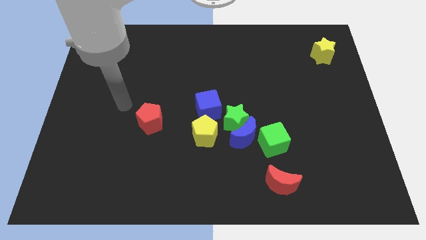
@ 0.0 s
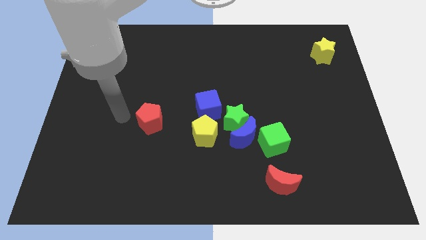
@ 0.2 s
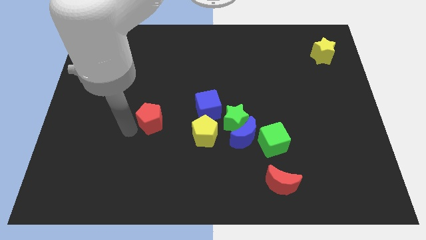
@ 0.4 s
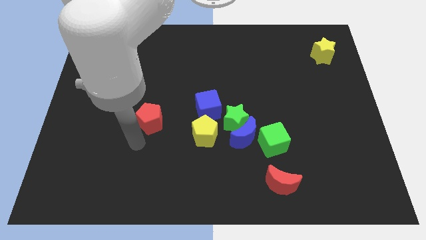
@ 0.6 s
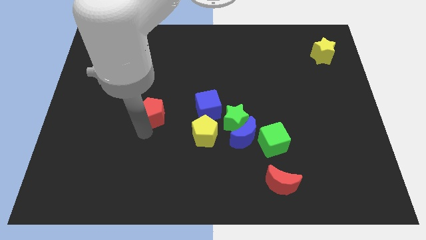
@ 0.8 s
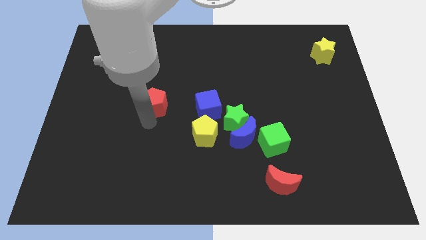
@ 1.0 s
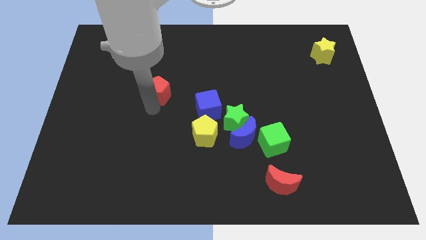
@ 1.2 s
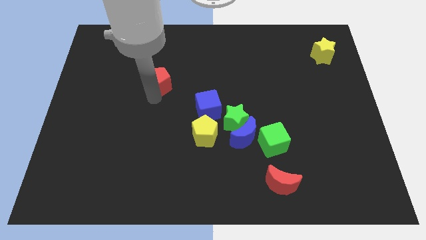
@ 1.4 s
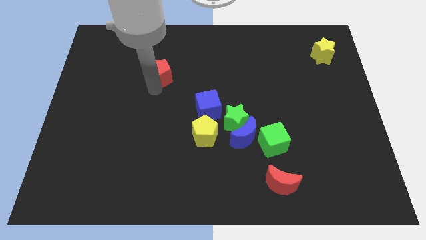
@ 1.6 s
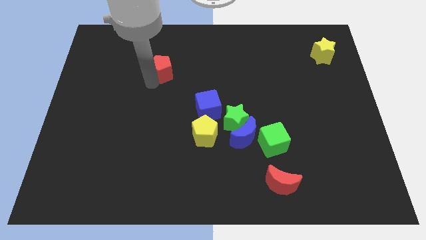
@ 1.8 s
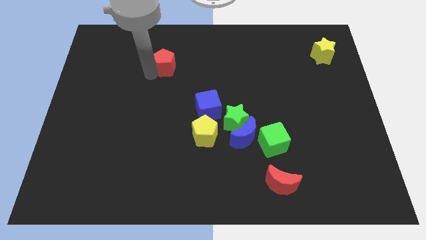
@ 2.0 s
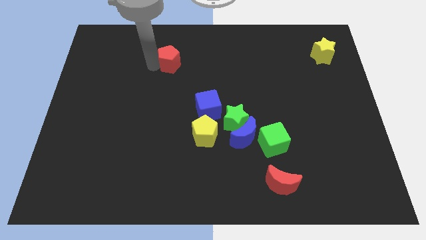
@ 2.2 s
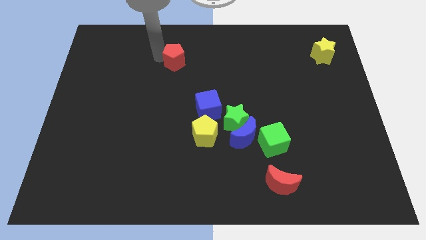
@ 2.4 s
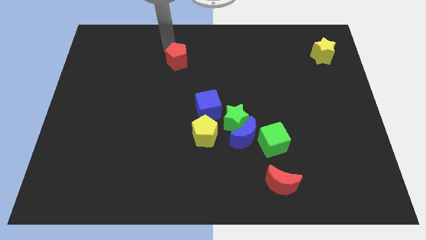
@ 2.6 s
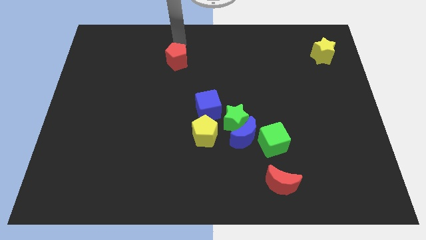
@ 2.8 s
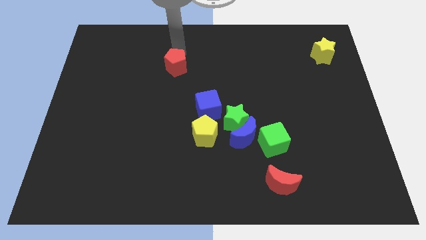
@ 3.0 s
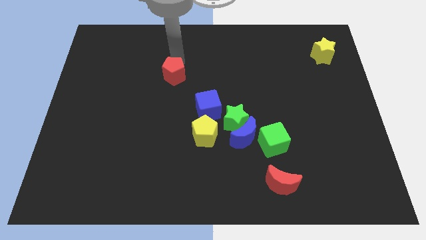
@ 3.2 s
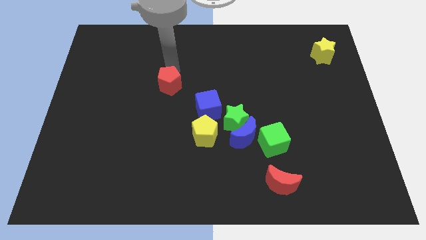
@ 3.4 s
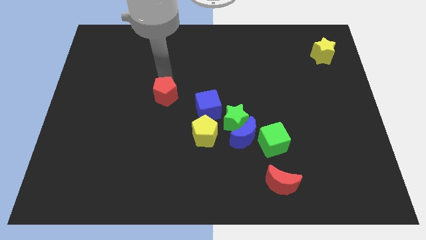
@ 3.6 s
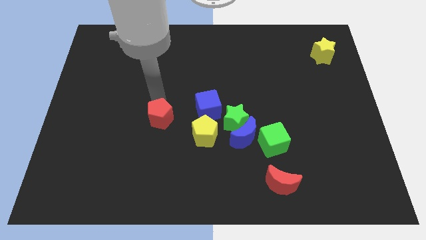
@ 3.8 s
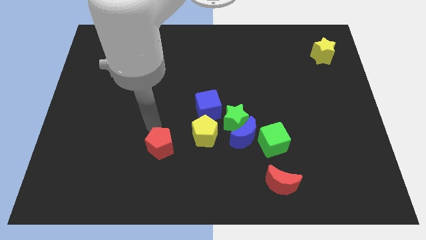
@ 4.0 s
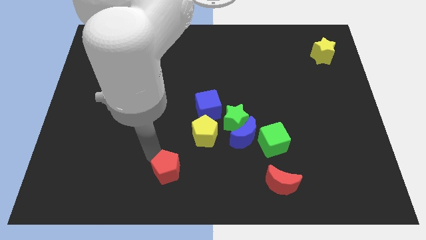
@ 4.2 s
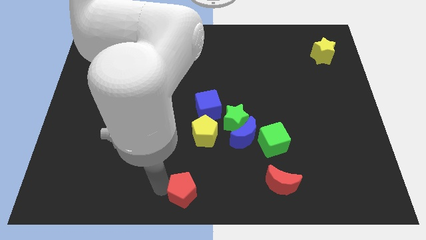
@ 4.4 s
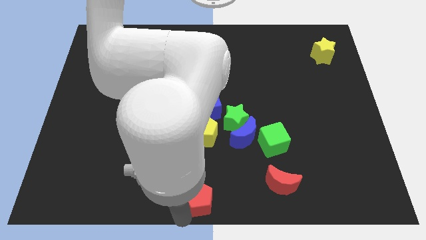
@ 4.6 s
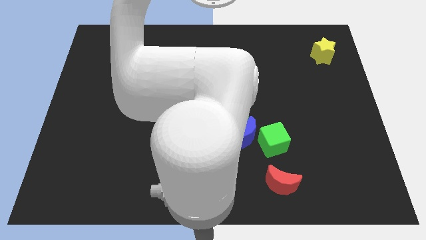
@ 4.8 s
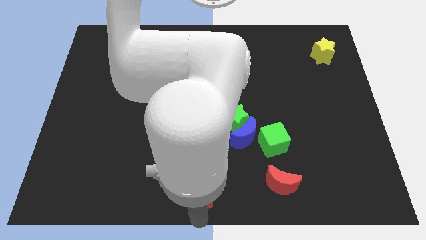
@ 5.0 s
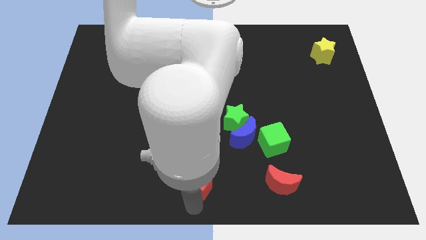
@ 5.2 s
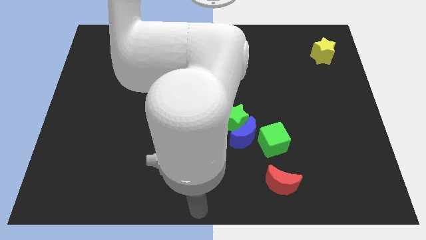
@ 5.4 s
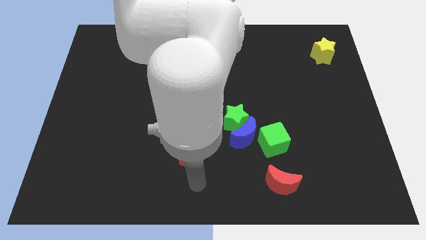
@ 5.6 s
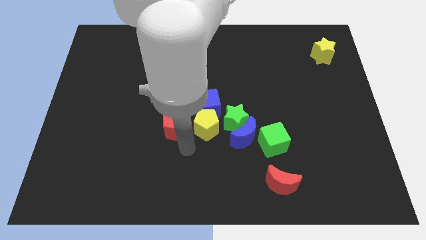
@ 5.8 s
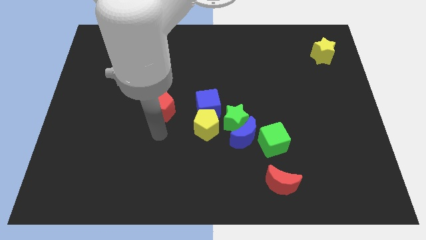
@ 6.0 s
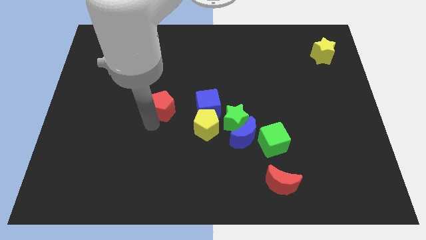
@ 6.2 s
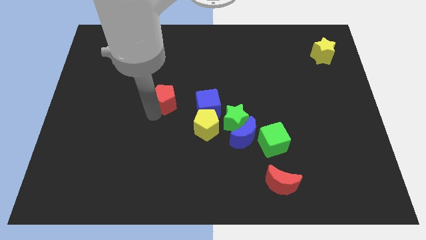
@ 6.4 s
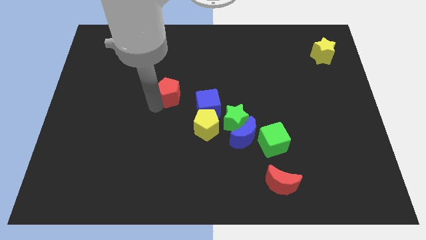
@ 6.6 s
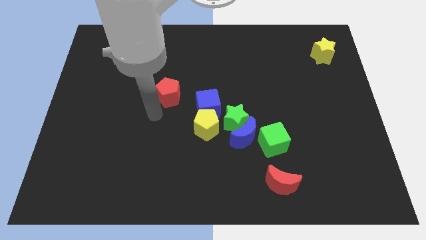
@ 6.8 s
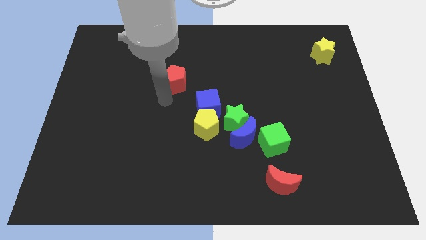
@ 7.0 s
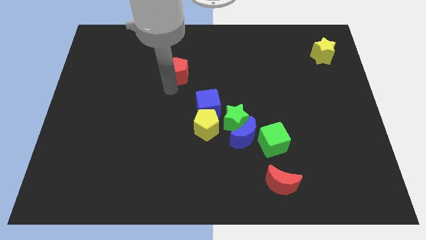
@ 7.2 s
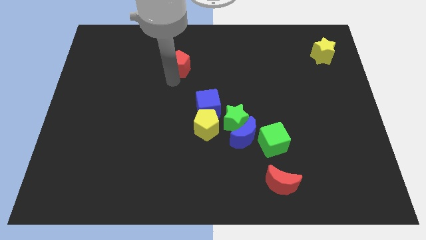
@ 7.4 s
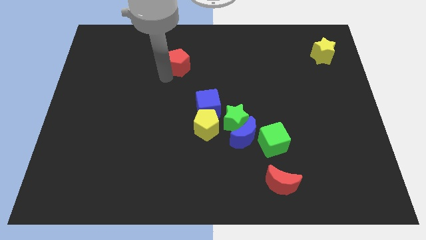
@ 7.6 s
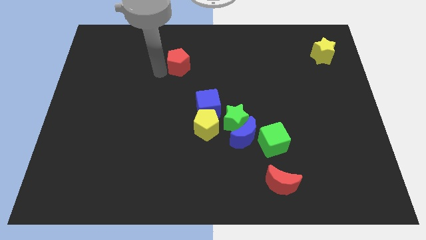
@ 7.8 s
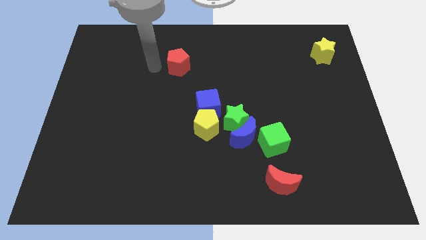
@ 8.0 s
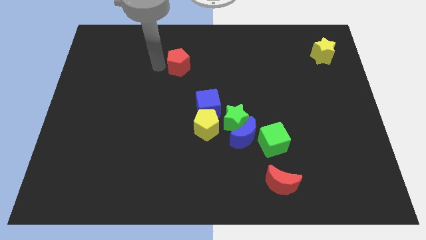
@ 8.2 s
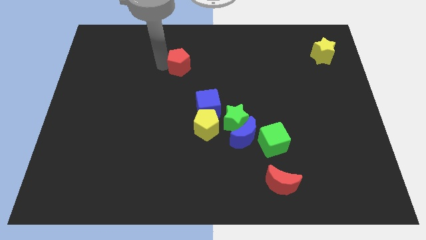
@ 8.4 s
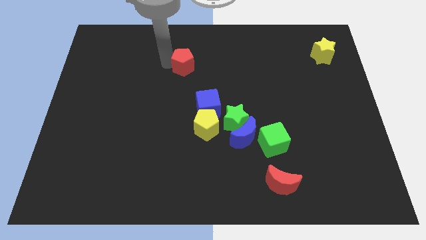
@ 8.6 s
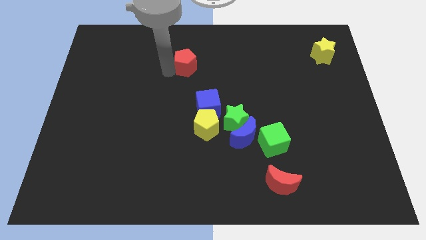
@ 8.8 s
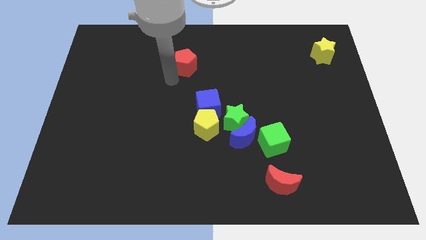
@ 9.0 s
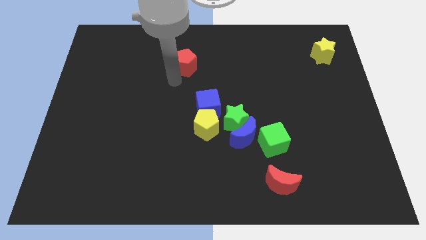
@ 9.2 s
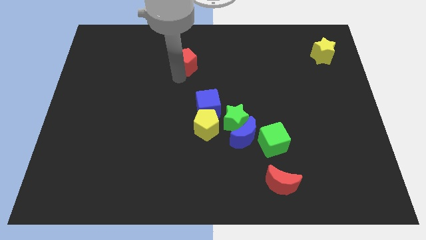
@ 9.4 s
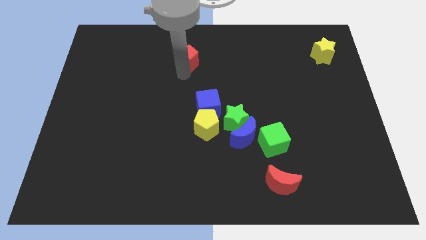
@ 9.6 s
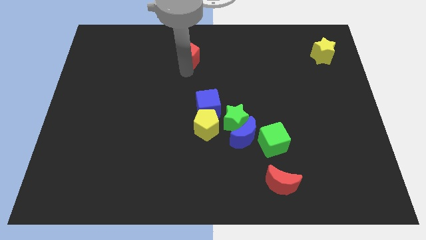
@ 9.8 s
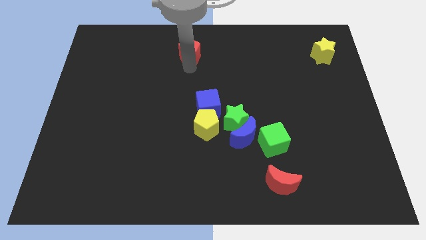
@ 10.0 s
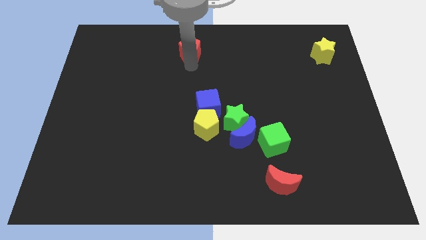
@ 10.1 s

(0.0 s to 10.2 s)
move the red pentagon to the towards your base
